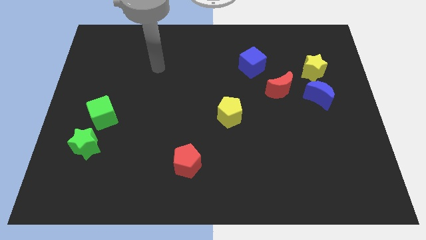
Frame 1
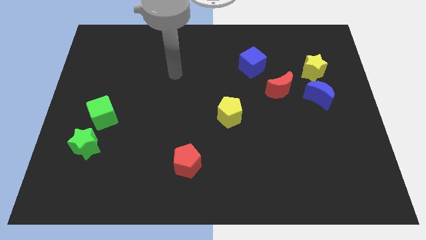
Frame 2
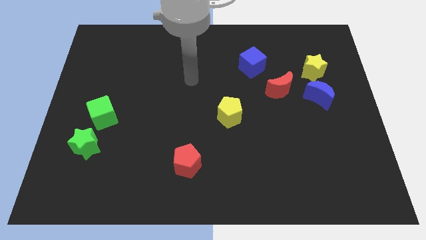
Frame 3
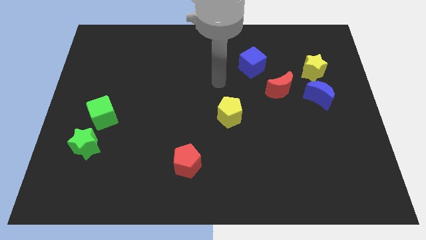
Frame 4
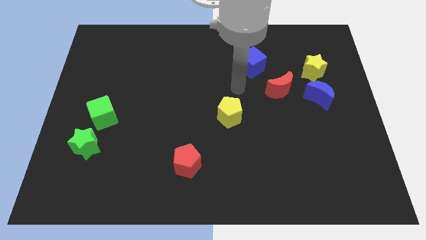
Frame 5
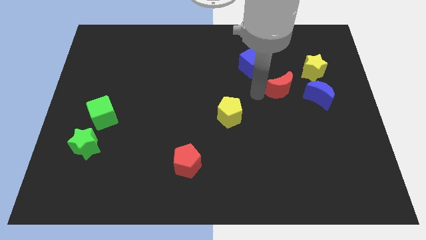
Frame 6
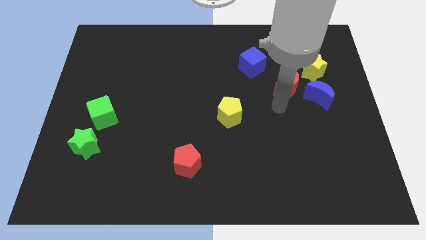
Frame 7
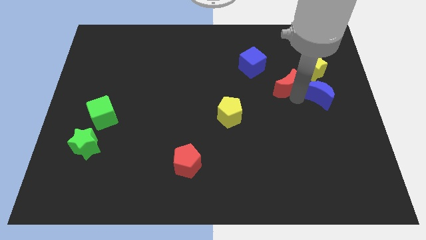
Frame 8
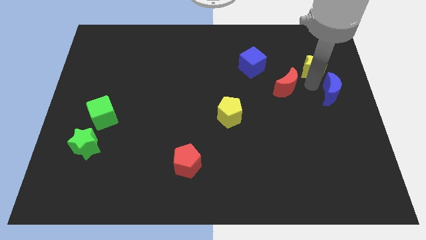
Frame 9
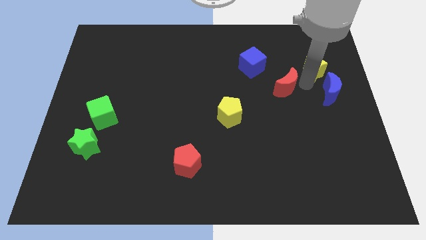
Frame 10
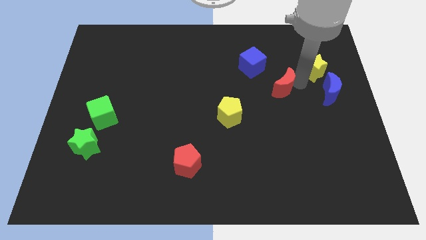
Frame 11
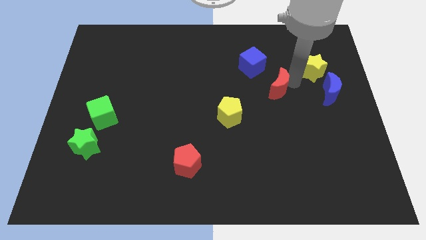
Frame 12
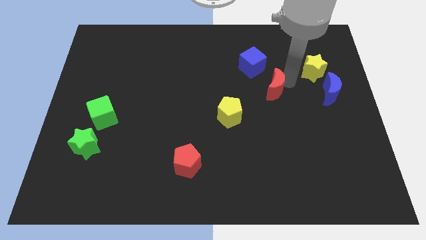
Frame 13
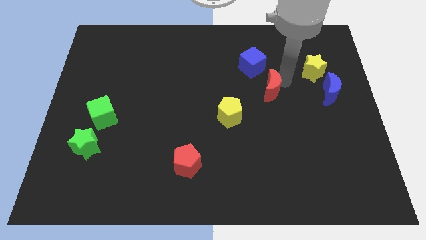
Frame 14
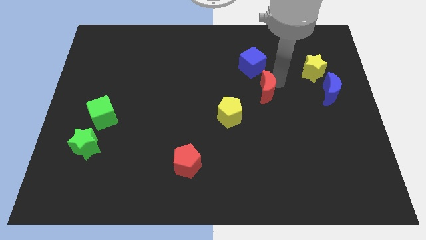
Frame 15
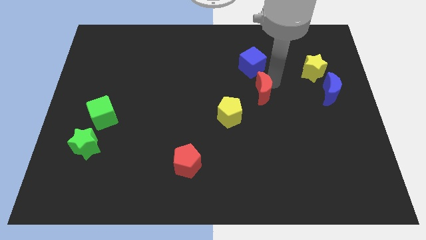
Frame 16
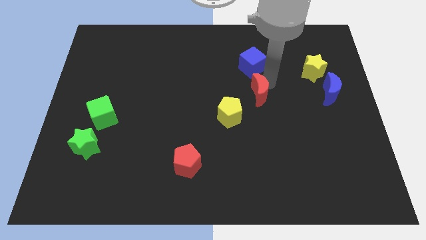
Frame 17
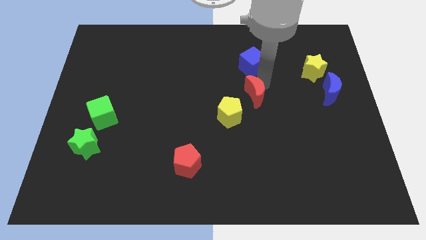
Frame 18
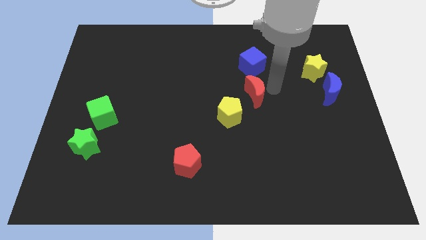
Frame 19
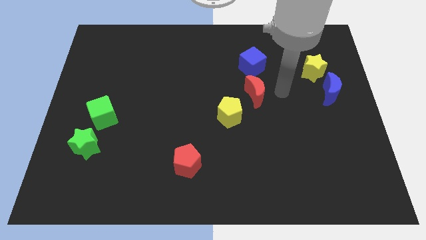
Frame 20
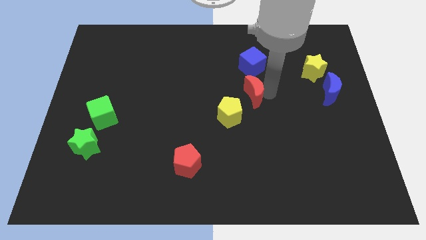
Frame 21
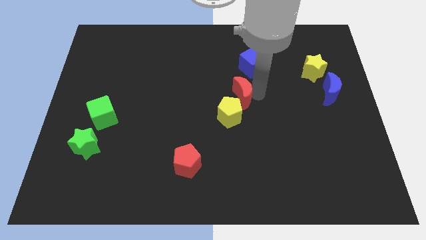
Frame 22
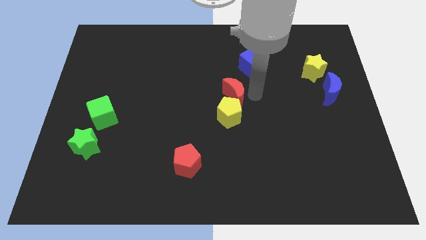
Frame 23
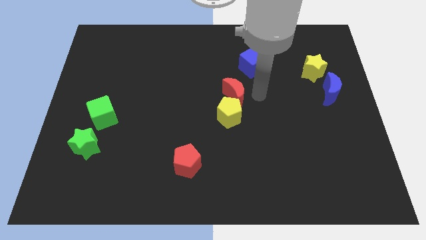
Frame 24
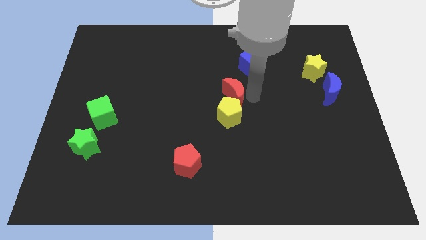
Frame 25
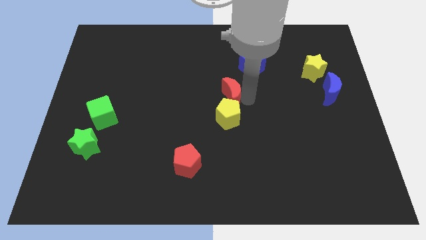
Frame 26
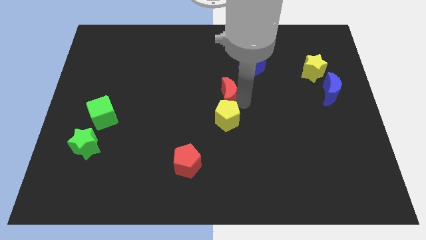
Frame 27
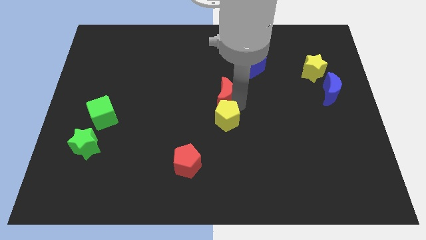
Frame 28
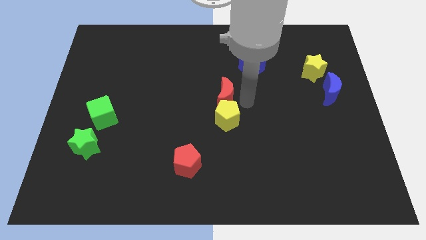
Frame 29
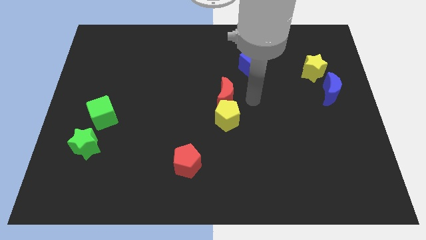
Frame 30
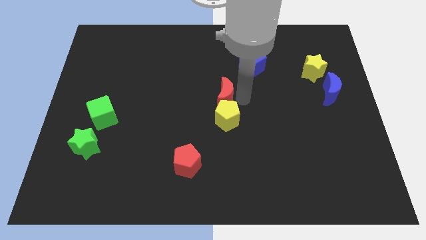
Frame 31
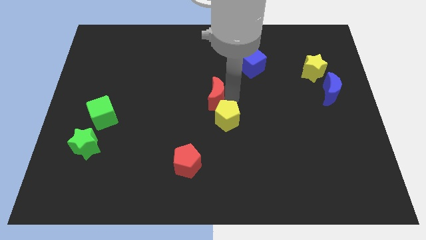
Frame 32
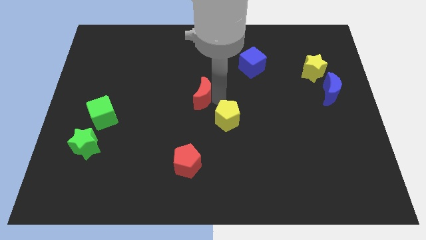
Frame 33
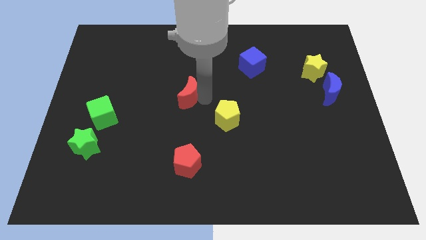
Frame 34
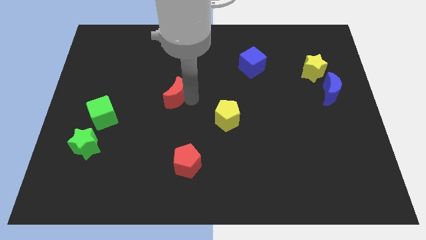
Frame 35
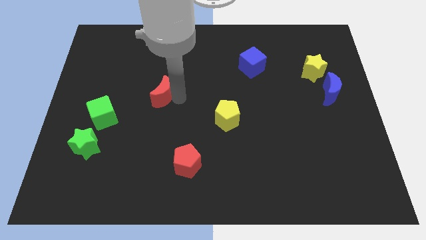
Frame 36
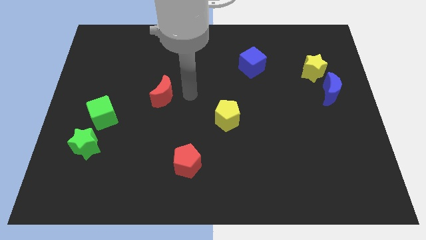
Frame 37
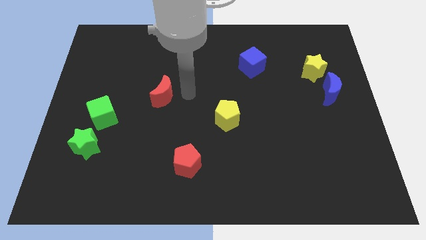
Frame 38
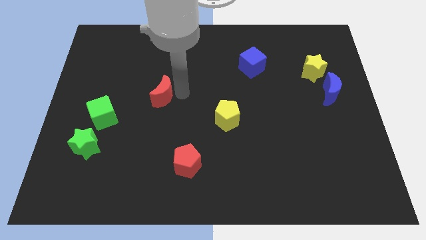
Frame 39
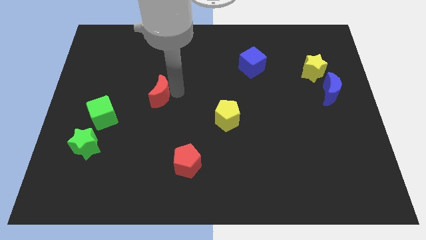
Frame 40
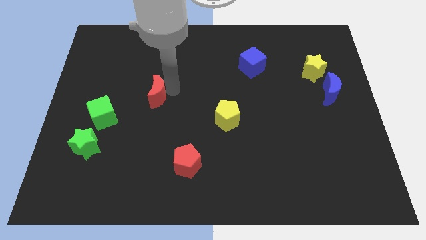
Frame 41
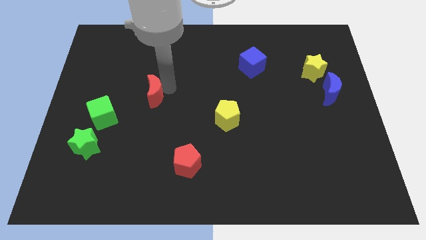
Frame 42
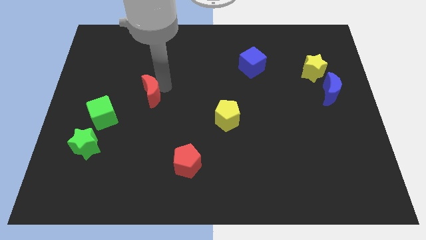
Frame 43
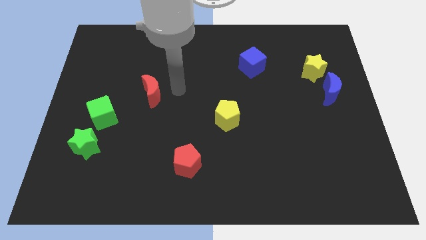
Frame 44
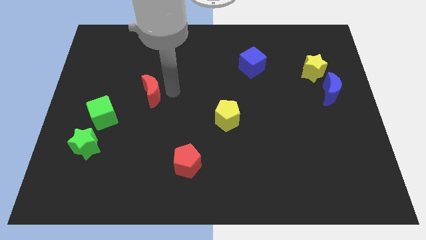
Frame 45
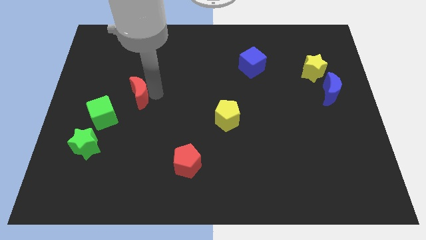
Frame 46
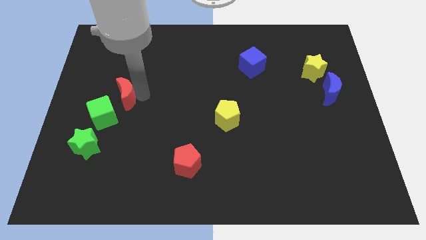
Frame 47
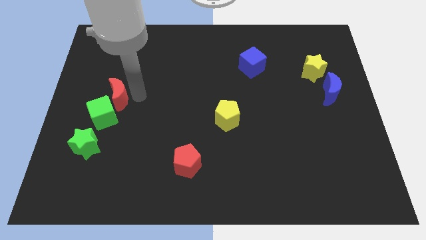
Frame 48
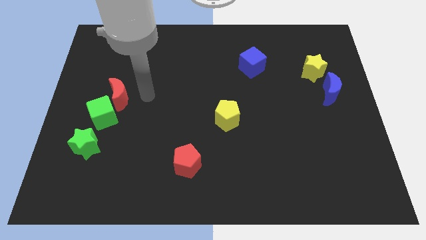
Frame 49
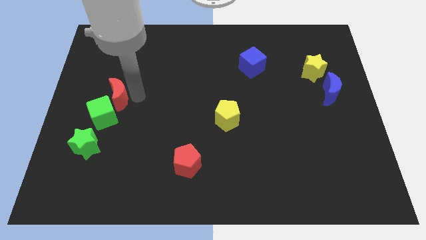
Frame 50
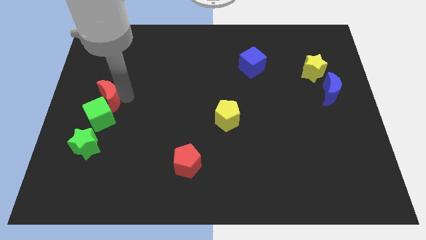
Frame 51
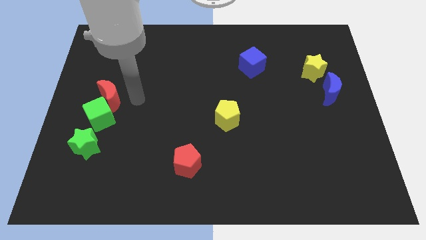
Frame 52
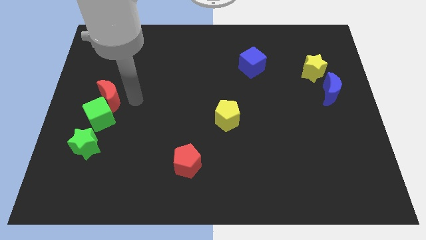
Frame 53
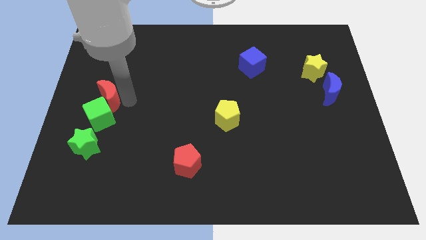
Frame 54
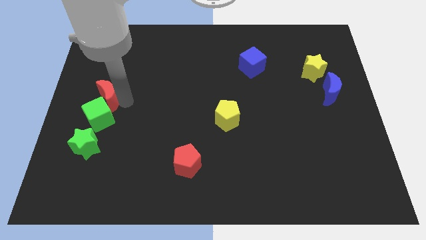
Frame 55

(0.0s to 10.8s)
put the red moon to the center left
